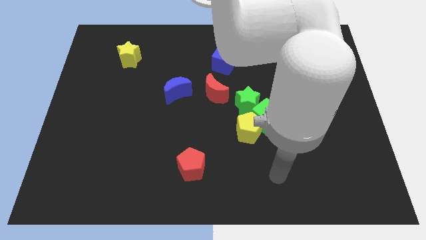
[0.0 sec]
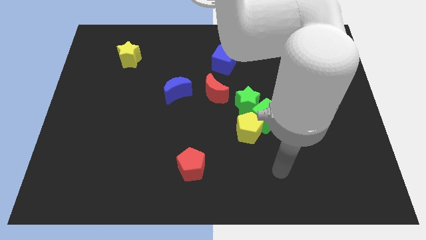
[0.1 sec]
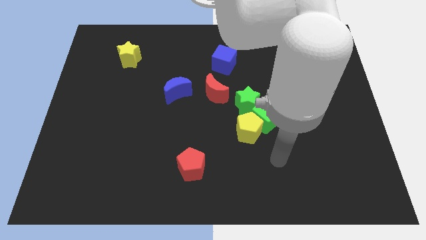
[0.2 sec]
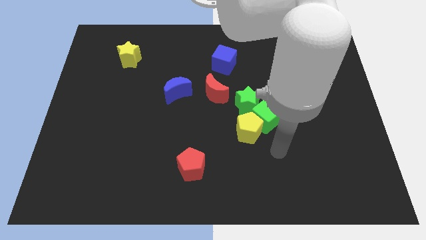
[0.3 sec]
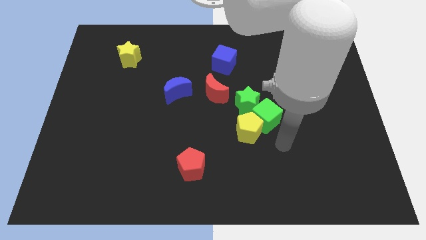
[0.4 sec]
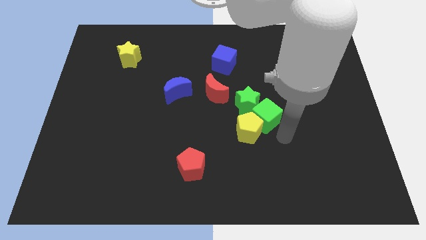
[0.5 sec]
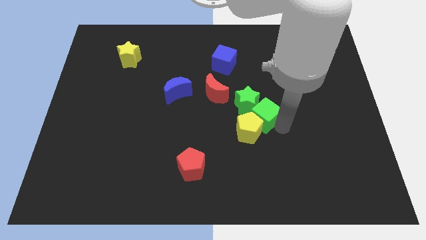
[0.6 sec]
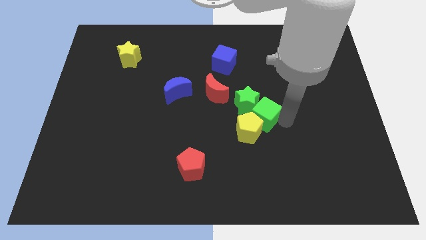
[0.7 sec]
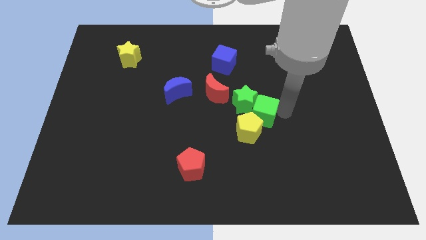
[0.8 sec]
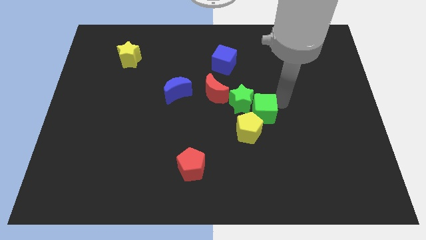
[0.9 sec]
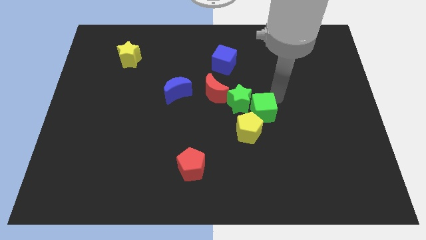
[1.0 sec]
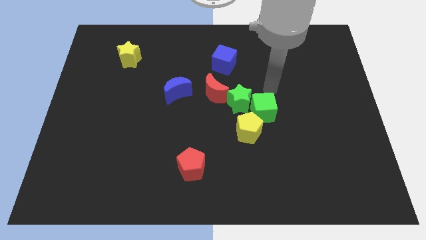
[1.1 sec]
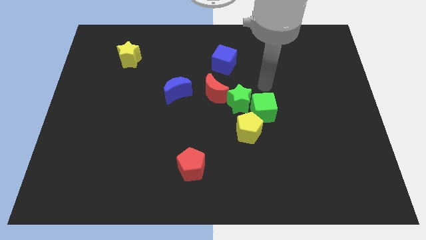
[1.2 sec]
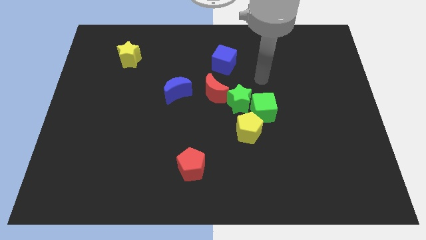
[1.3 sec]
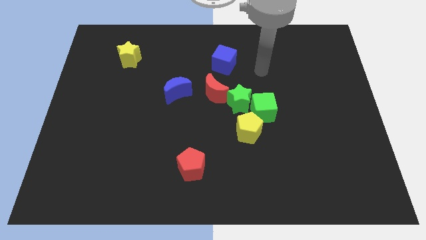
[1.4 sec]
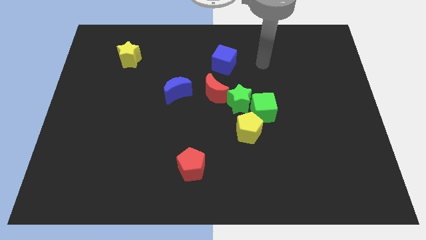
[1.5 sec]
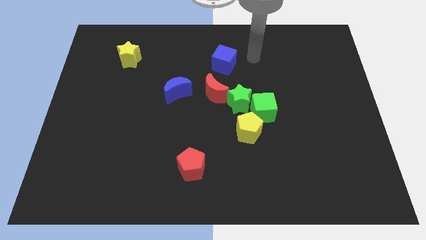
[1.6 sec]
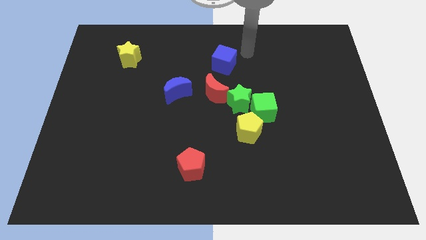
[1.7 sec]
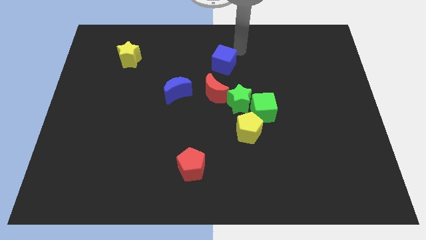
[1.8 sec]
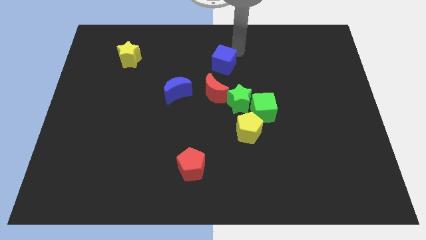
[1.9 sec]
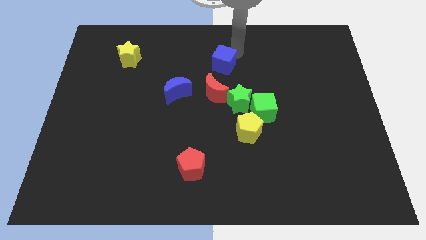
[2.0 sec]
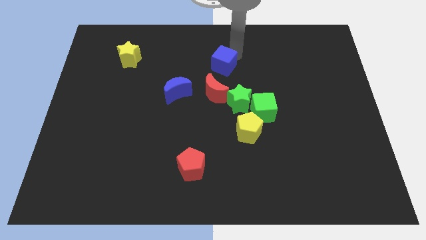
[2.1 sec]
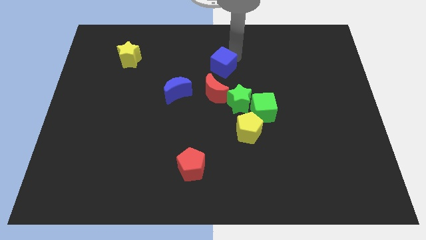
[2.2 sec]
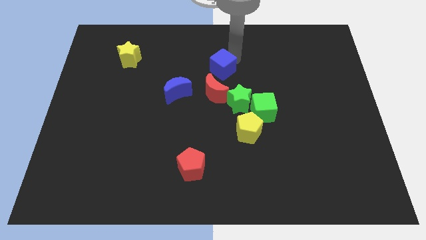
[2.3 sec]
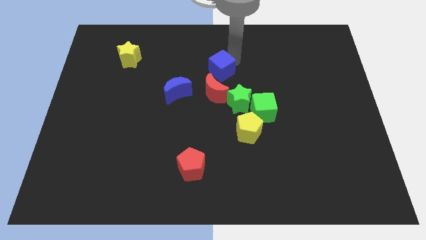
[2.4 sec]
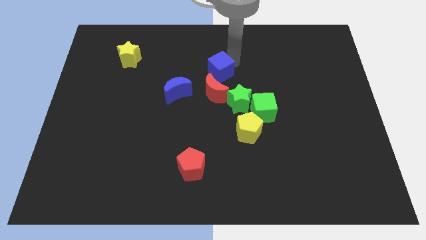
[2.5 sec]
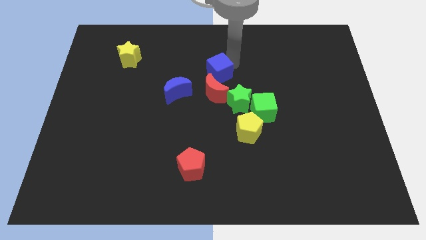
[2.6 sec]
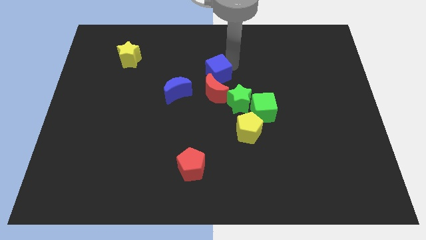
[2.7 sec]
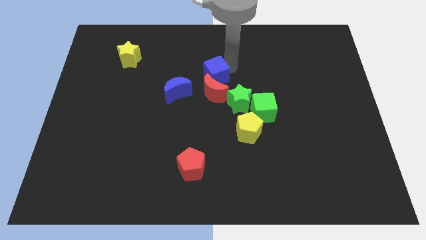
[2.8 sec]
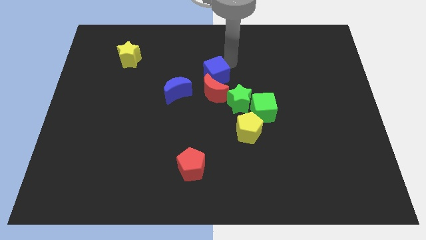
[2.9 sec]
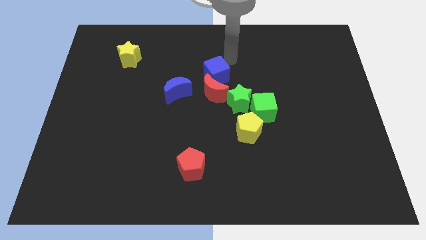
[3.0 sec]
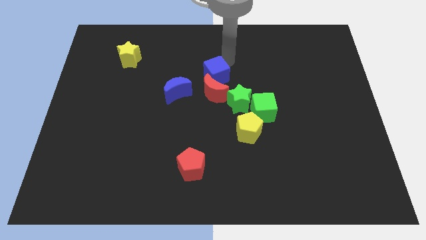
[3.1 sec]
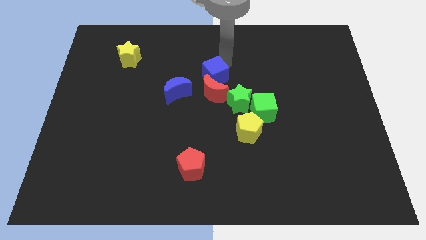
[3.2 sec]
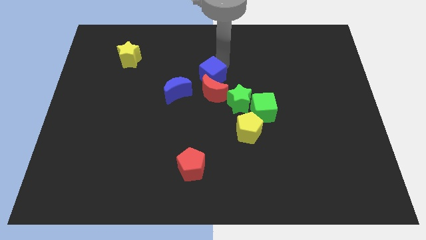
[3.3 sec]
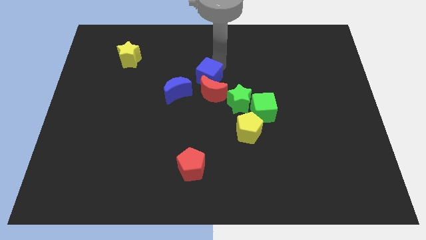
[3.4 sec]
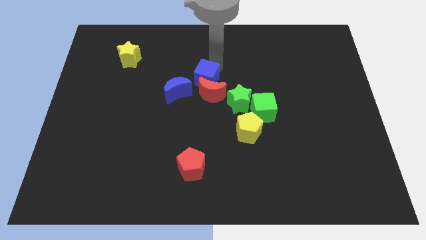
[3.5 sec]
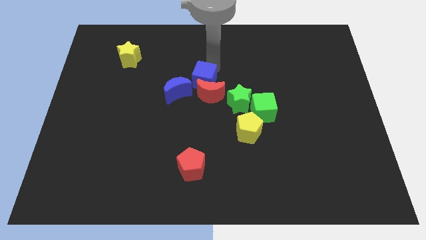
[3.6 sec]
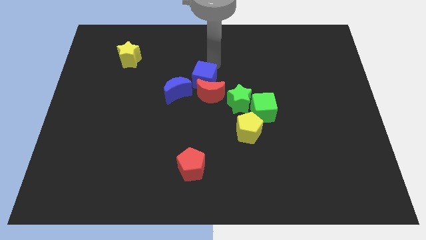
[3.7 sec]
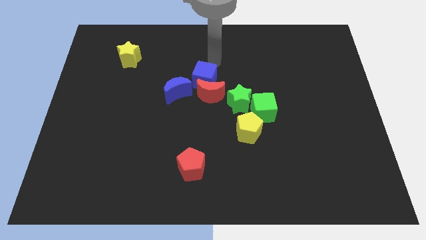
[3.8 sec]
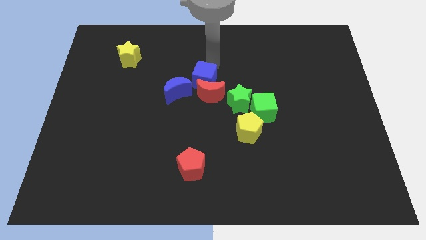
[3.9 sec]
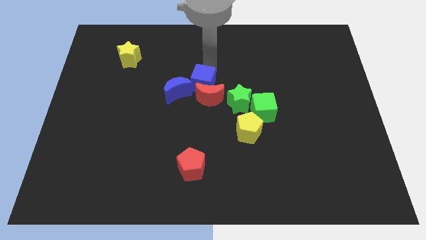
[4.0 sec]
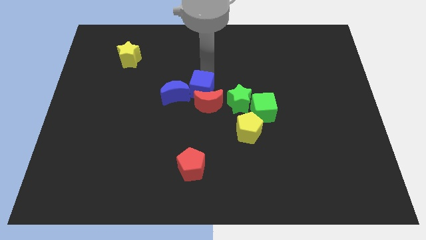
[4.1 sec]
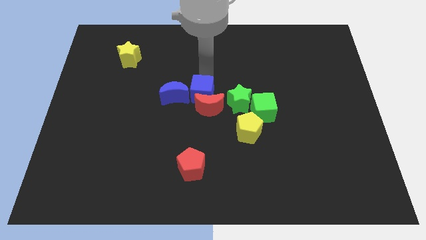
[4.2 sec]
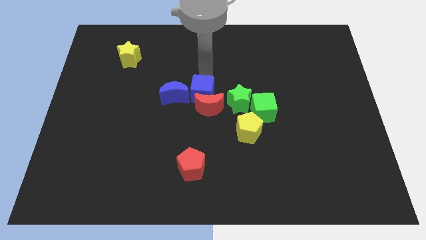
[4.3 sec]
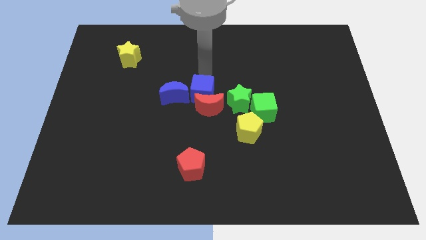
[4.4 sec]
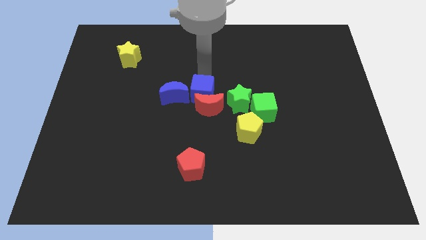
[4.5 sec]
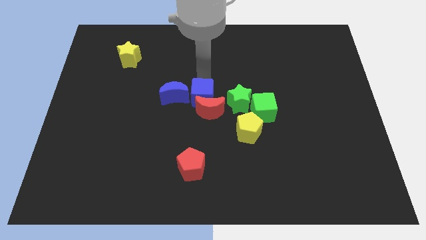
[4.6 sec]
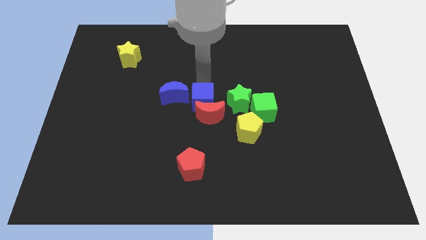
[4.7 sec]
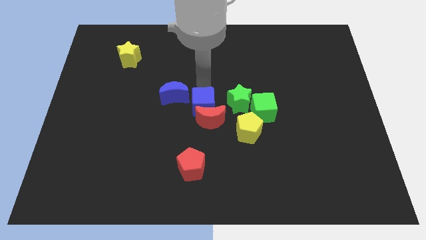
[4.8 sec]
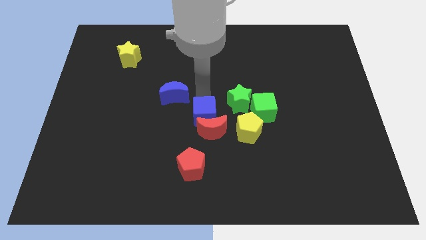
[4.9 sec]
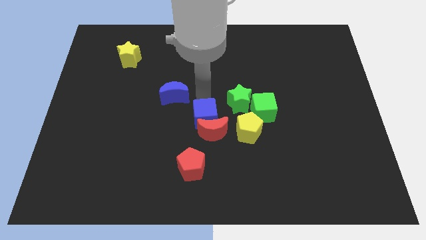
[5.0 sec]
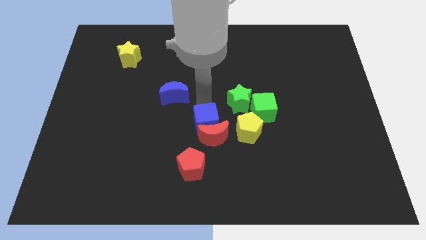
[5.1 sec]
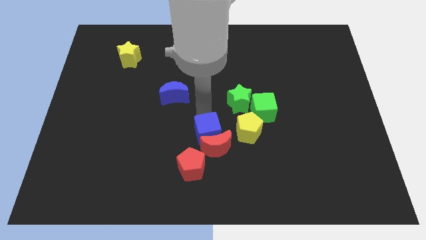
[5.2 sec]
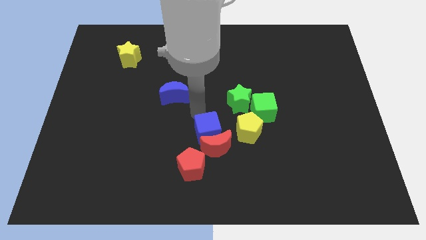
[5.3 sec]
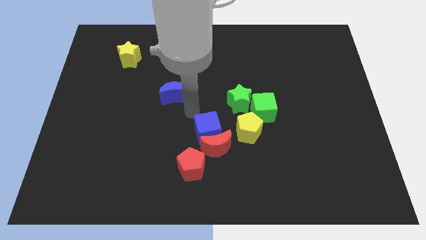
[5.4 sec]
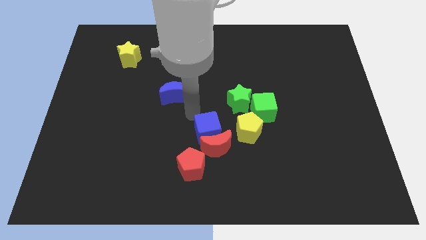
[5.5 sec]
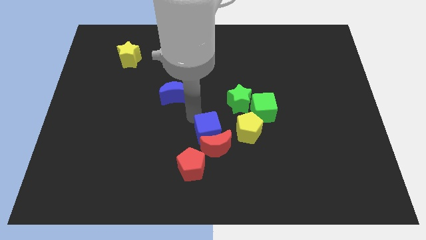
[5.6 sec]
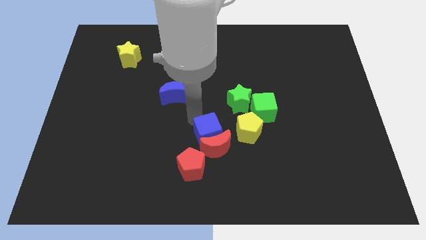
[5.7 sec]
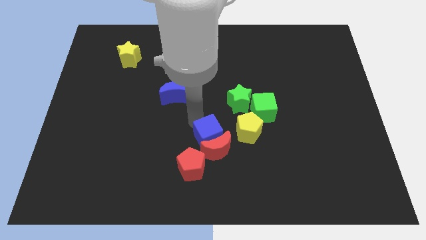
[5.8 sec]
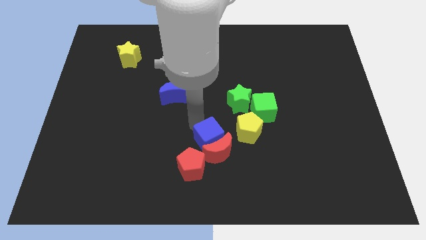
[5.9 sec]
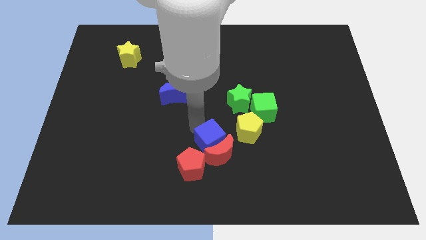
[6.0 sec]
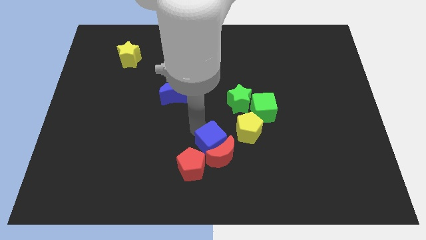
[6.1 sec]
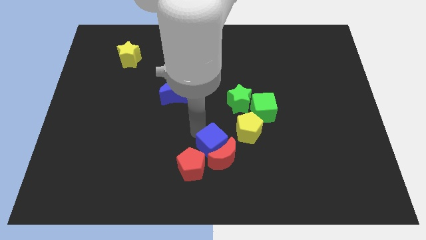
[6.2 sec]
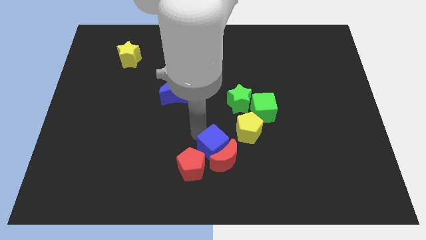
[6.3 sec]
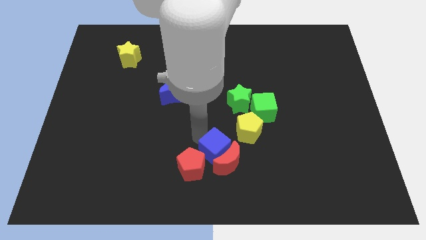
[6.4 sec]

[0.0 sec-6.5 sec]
move the blue cube right of the red pentagon
